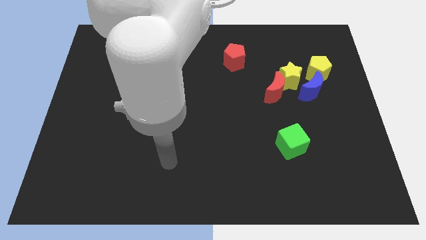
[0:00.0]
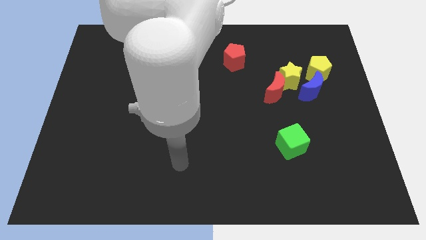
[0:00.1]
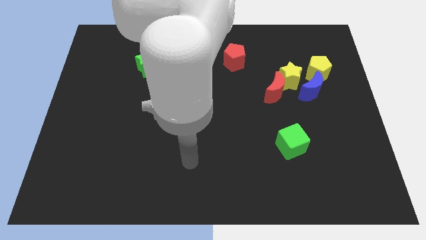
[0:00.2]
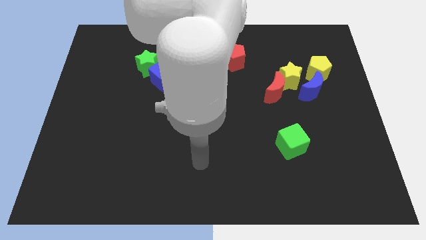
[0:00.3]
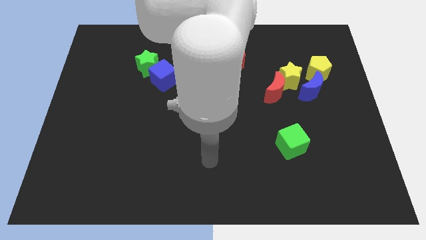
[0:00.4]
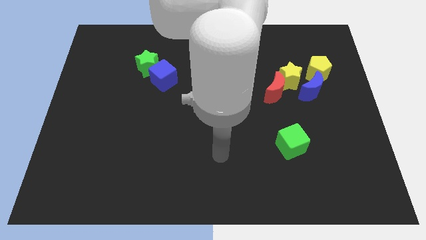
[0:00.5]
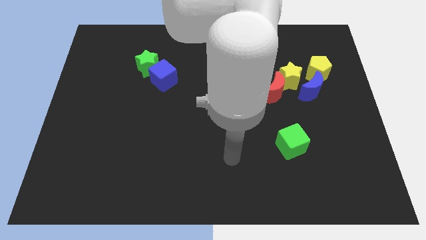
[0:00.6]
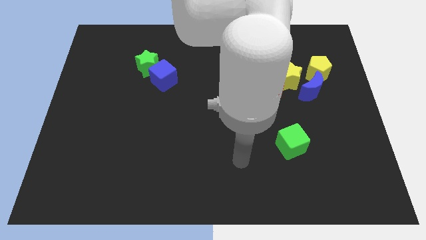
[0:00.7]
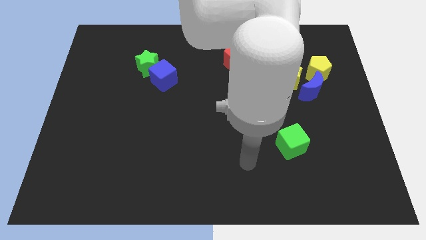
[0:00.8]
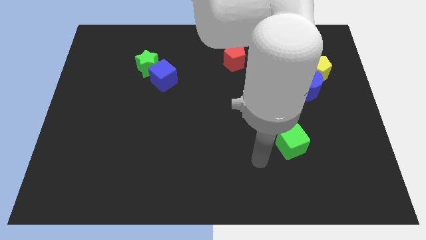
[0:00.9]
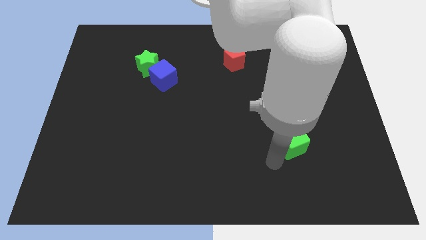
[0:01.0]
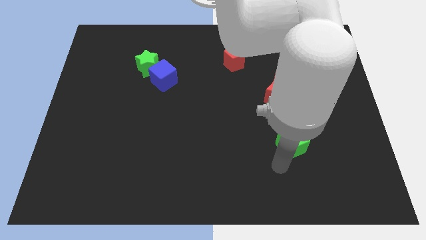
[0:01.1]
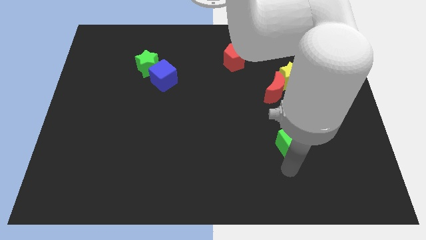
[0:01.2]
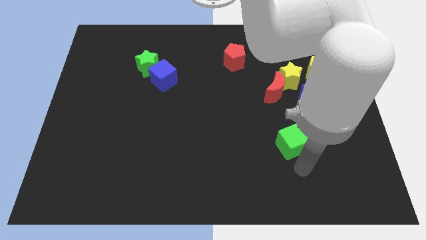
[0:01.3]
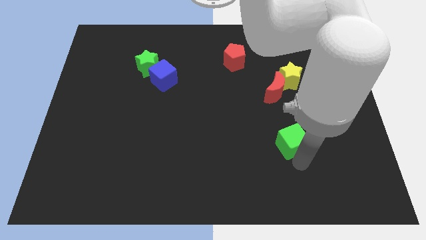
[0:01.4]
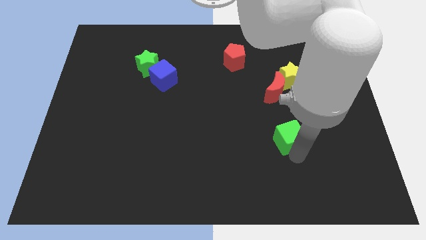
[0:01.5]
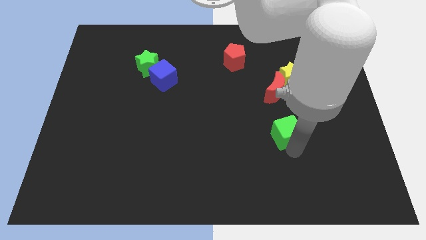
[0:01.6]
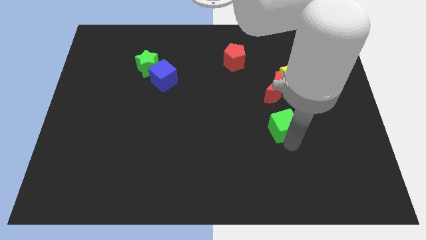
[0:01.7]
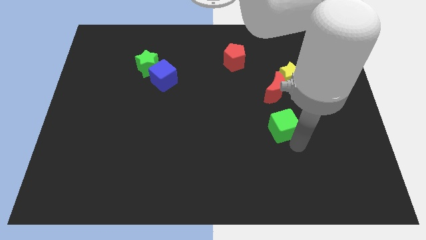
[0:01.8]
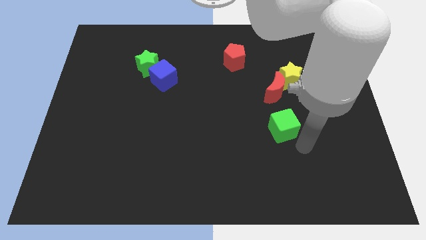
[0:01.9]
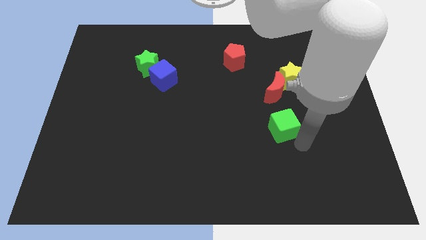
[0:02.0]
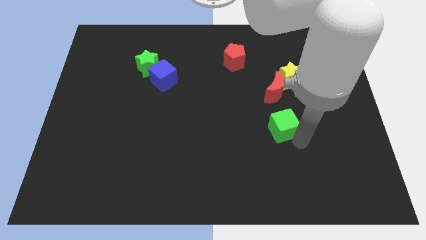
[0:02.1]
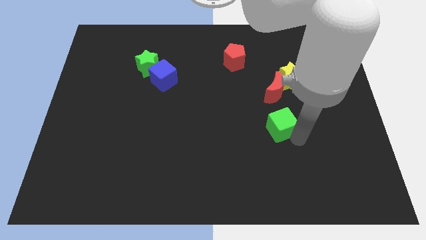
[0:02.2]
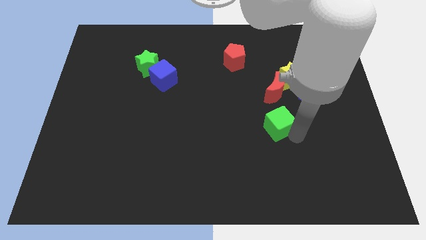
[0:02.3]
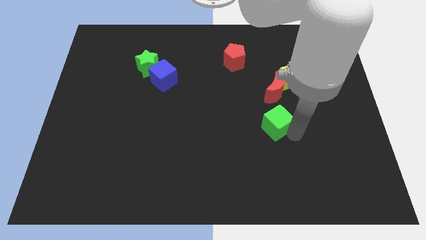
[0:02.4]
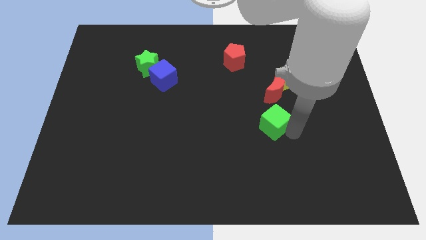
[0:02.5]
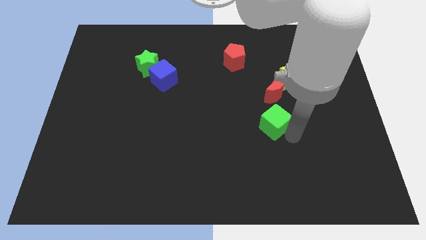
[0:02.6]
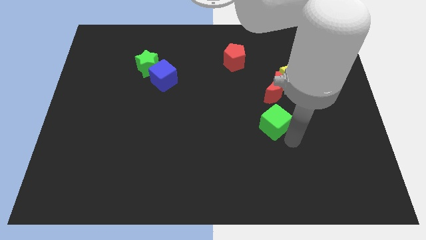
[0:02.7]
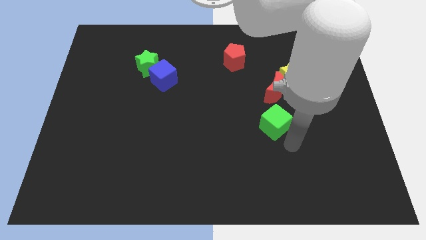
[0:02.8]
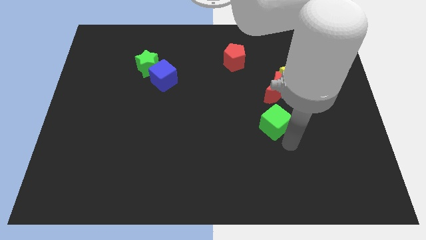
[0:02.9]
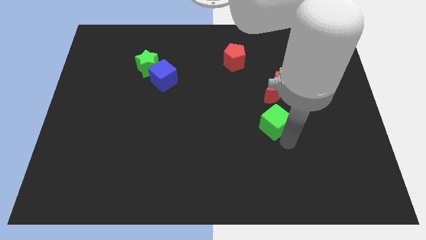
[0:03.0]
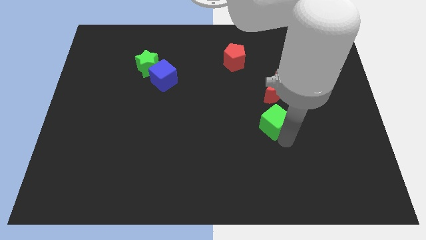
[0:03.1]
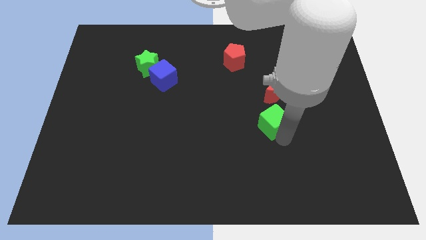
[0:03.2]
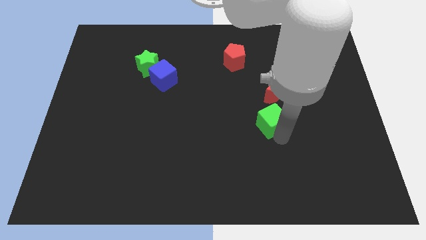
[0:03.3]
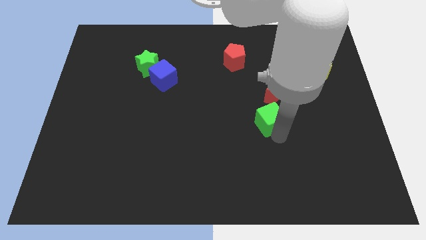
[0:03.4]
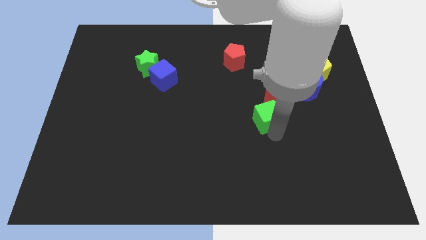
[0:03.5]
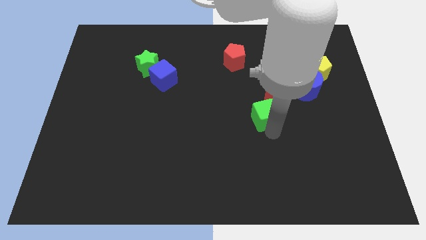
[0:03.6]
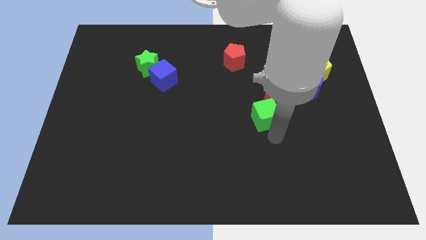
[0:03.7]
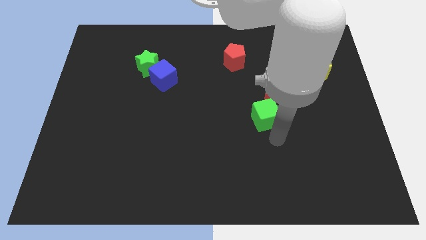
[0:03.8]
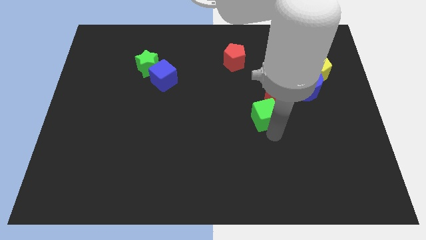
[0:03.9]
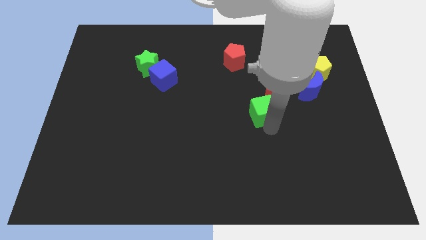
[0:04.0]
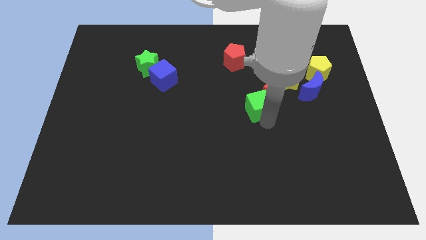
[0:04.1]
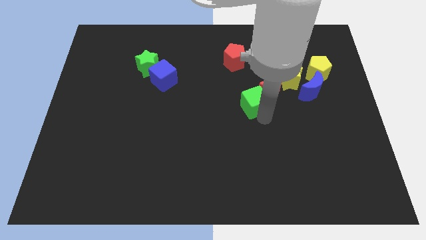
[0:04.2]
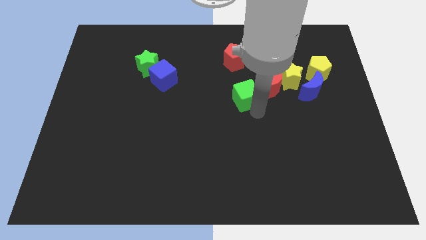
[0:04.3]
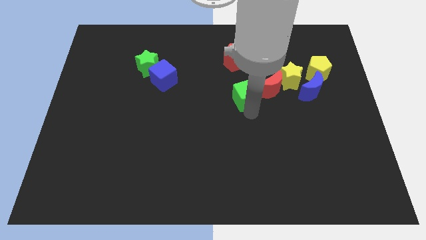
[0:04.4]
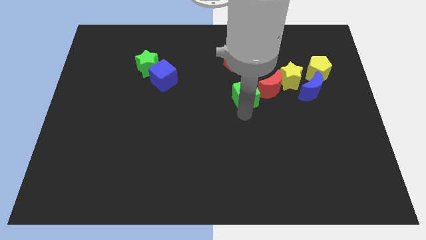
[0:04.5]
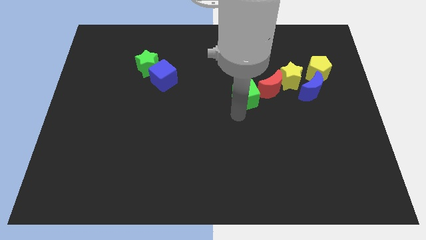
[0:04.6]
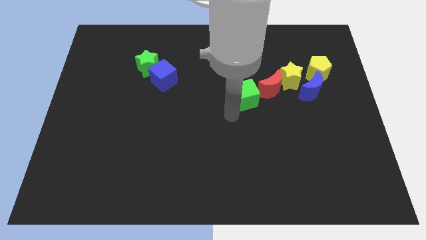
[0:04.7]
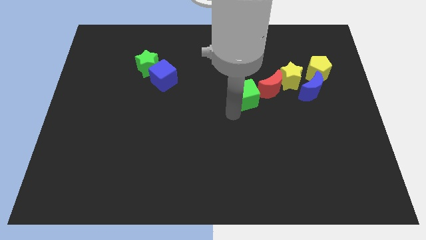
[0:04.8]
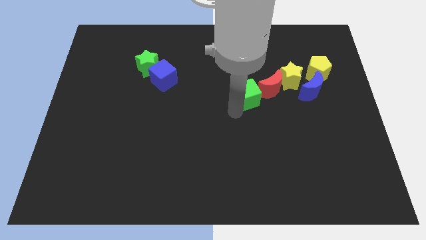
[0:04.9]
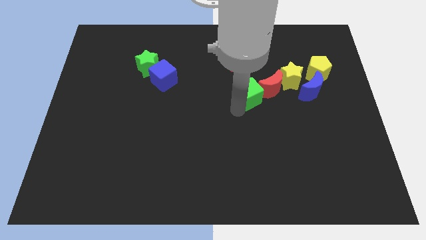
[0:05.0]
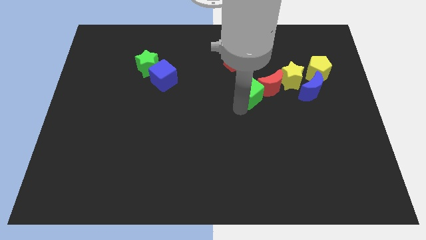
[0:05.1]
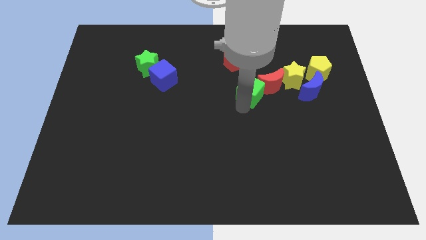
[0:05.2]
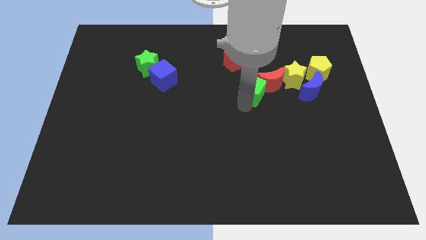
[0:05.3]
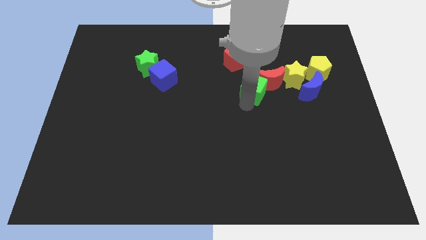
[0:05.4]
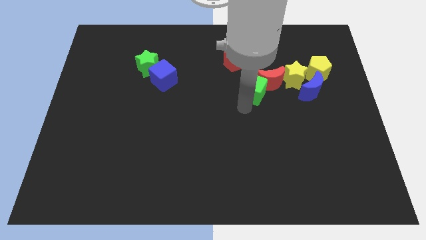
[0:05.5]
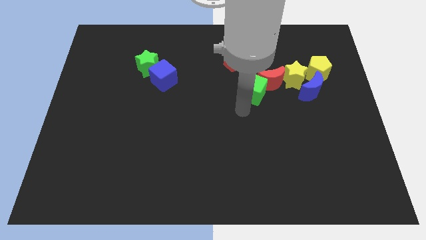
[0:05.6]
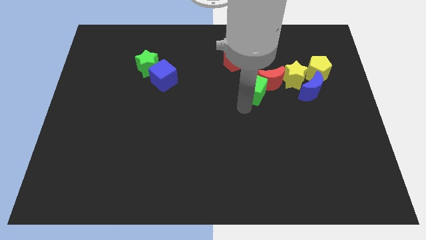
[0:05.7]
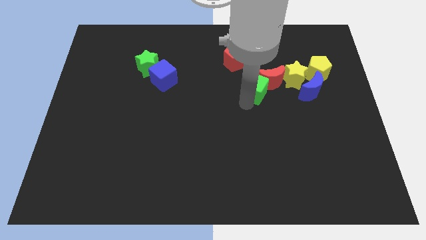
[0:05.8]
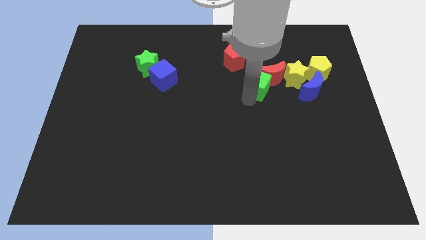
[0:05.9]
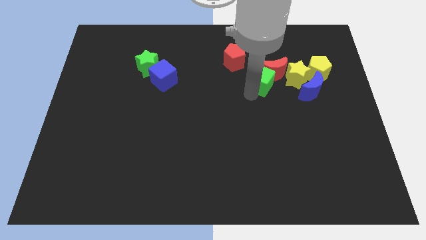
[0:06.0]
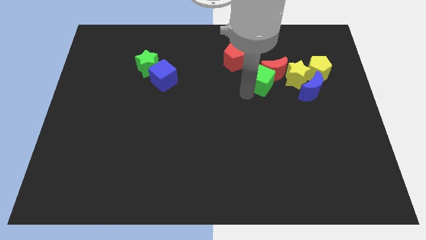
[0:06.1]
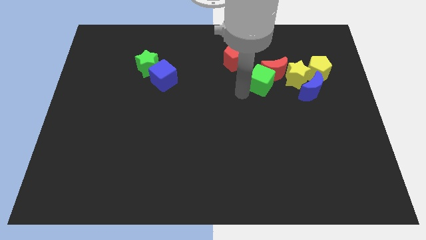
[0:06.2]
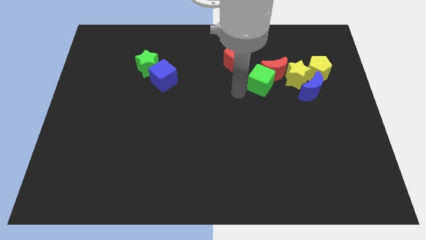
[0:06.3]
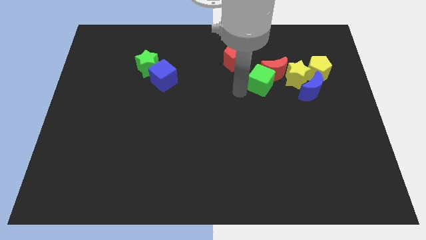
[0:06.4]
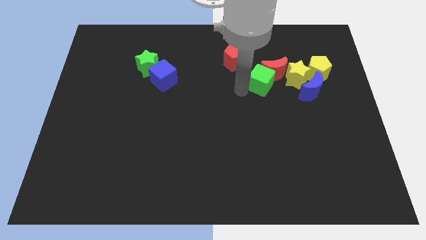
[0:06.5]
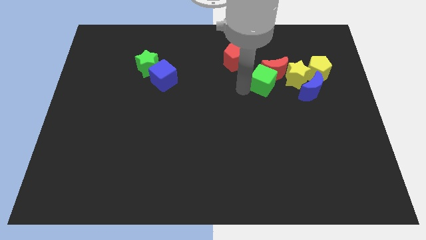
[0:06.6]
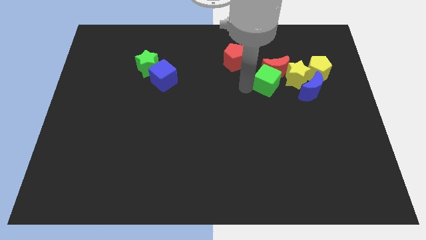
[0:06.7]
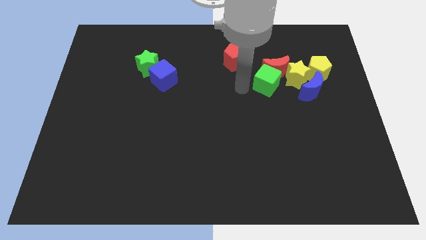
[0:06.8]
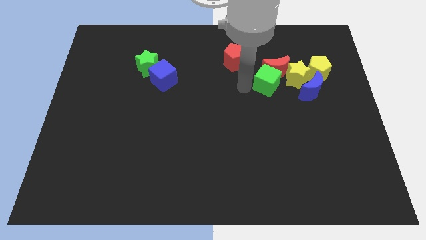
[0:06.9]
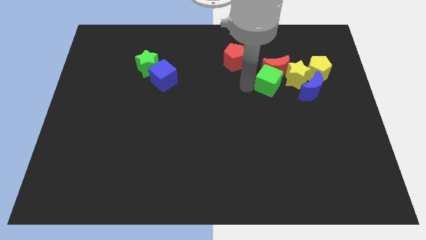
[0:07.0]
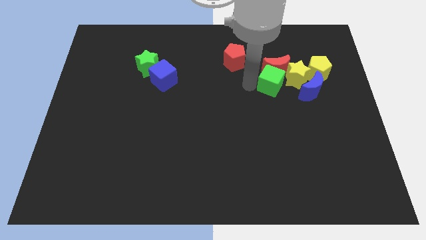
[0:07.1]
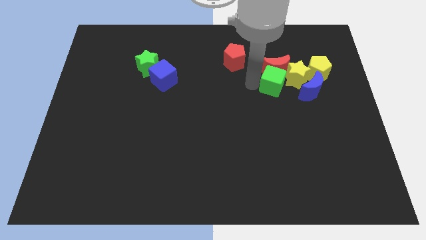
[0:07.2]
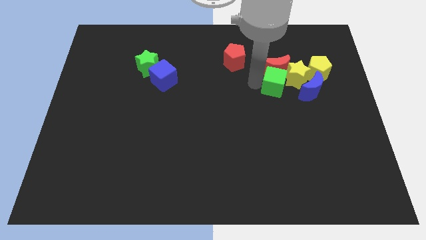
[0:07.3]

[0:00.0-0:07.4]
push the green cube next to the yellow star
